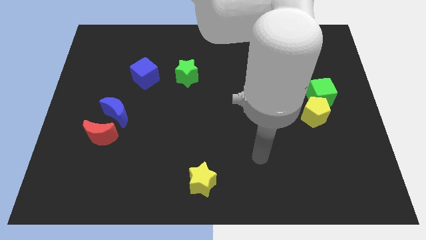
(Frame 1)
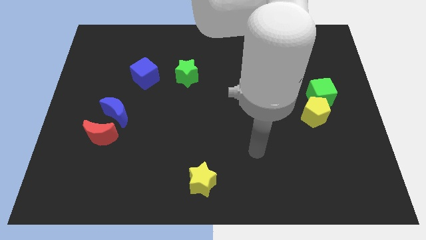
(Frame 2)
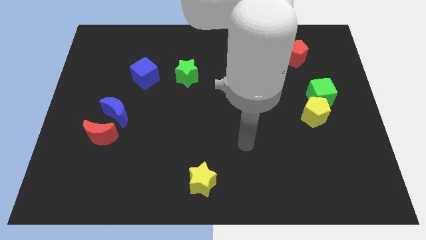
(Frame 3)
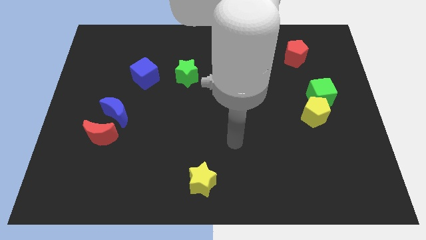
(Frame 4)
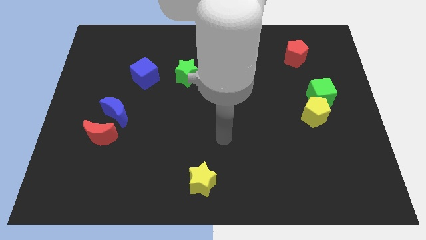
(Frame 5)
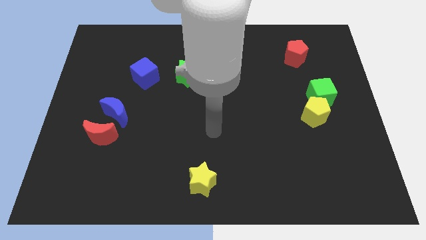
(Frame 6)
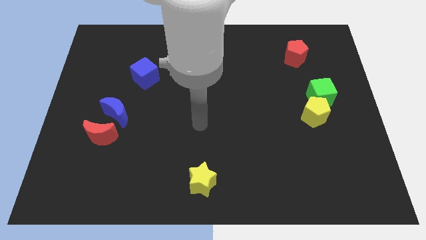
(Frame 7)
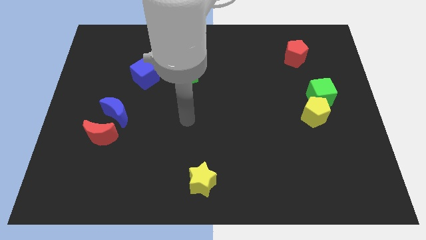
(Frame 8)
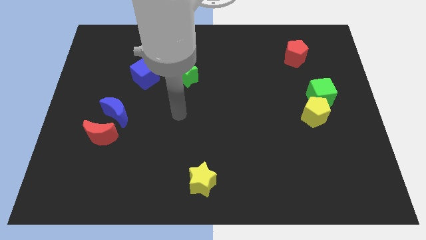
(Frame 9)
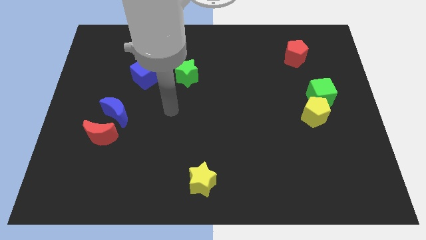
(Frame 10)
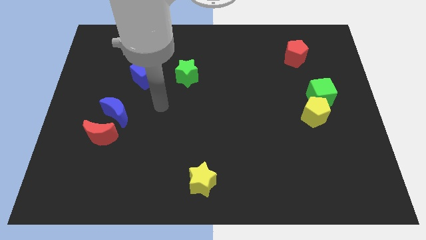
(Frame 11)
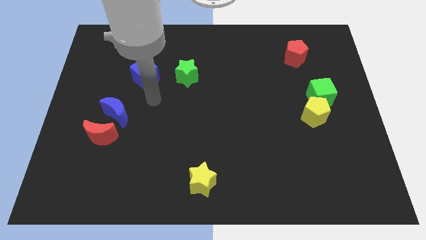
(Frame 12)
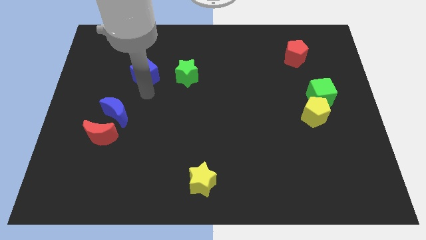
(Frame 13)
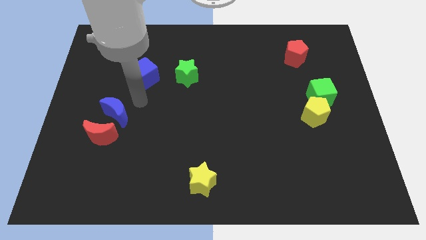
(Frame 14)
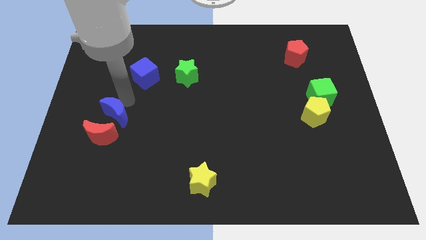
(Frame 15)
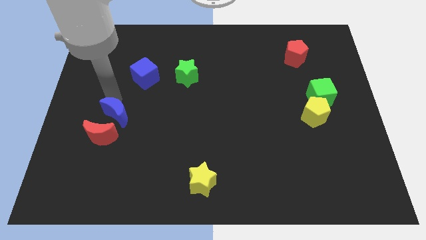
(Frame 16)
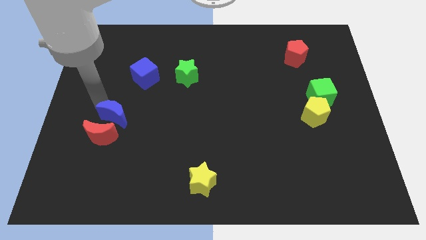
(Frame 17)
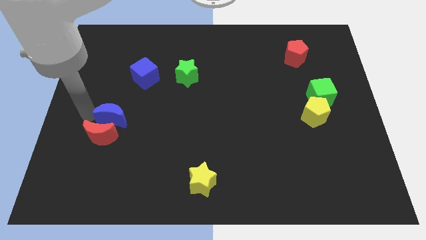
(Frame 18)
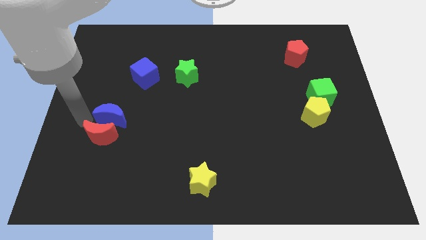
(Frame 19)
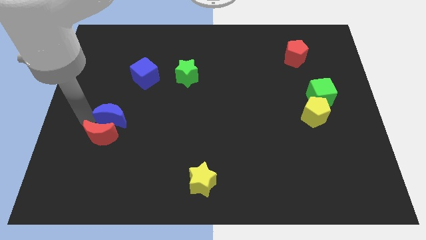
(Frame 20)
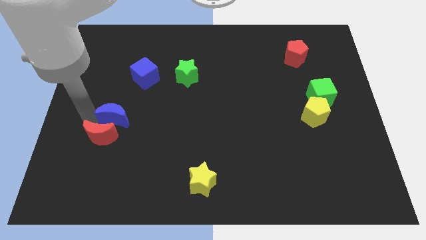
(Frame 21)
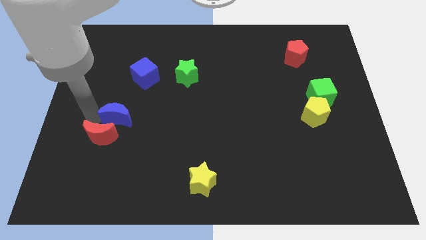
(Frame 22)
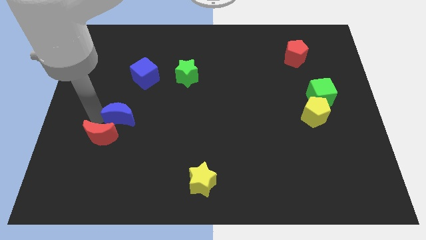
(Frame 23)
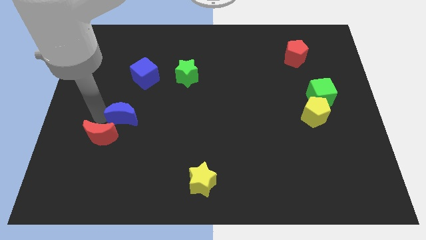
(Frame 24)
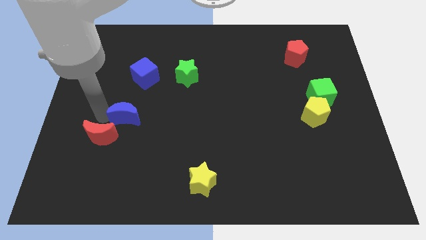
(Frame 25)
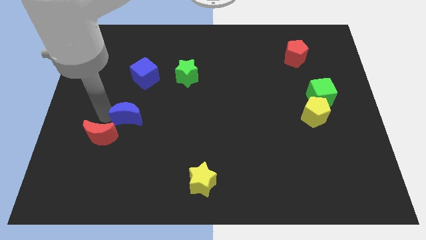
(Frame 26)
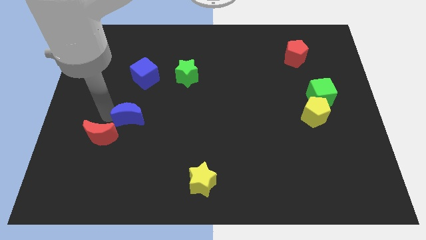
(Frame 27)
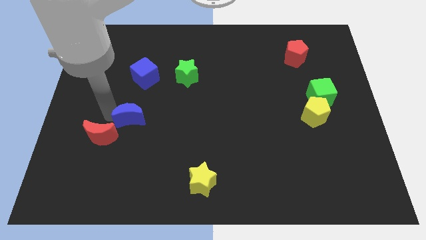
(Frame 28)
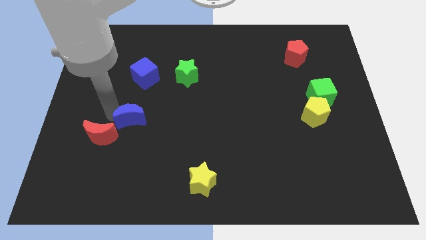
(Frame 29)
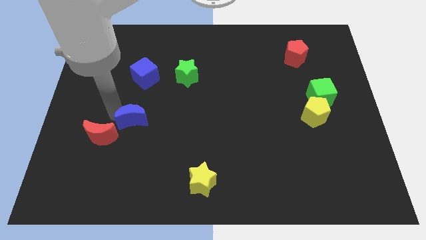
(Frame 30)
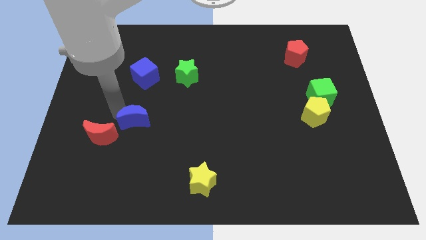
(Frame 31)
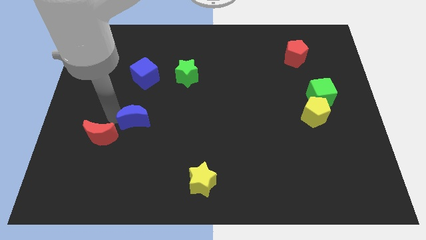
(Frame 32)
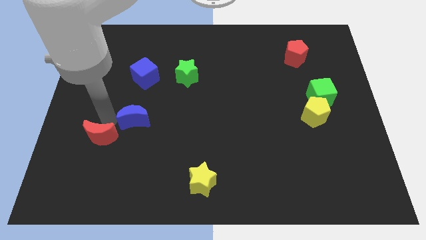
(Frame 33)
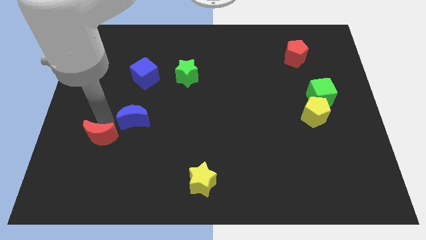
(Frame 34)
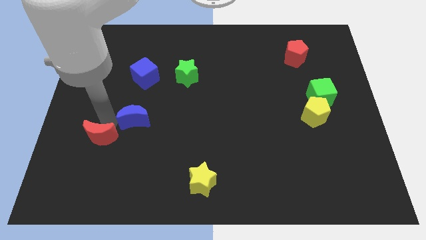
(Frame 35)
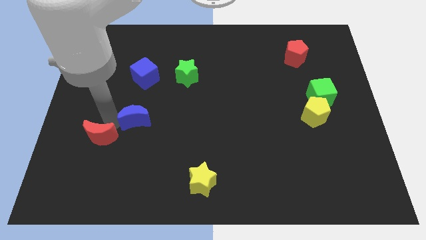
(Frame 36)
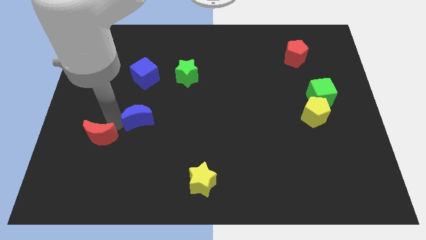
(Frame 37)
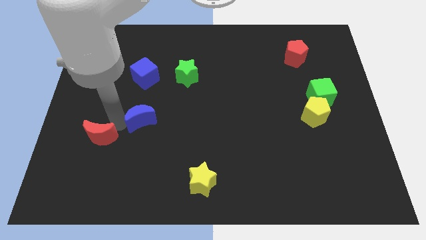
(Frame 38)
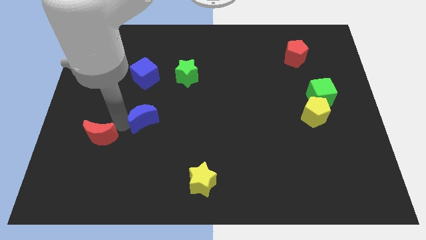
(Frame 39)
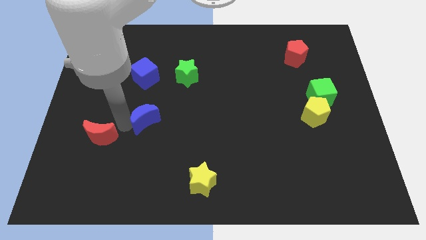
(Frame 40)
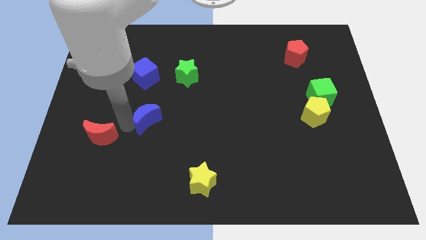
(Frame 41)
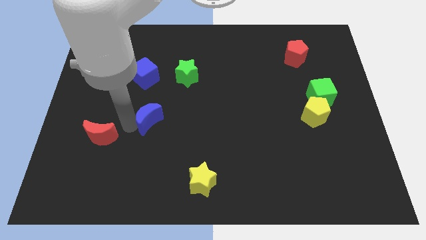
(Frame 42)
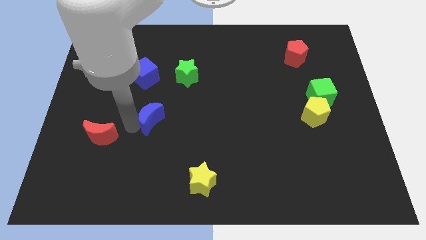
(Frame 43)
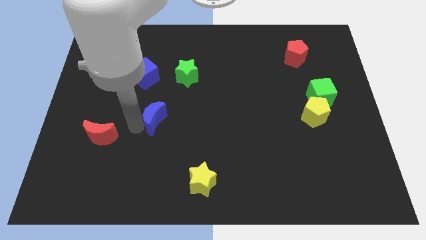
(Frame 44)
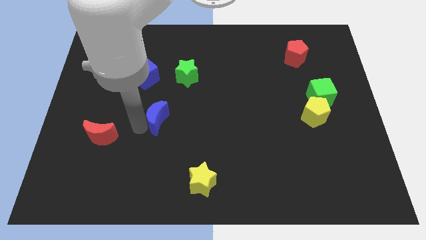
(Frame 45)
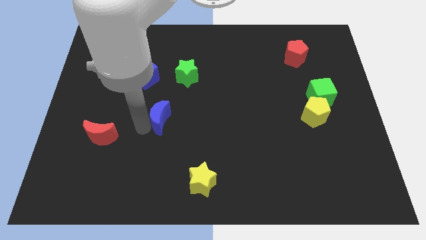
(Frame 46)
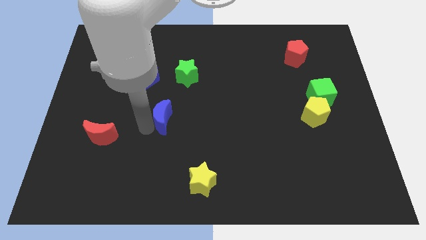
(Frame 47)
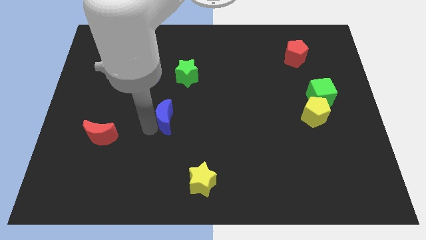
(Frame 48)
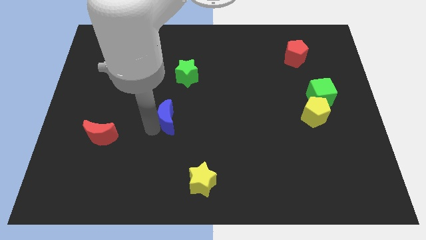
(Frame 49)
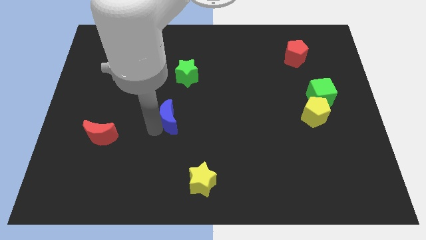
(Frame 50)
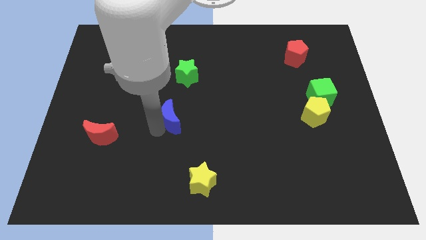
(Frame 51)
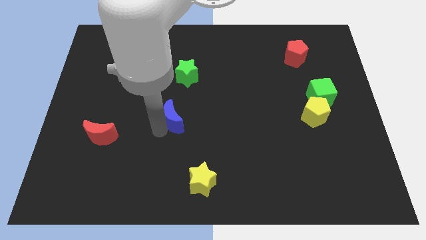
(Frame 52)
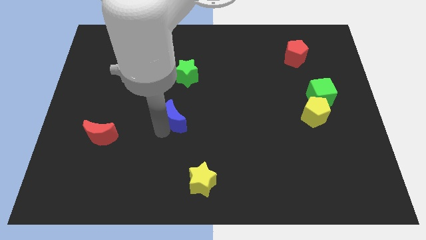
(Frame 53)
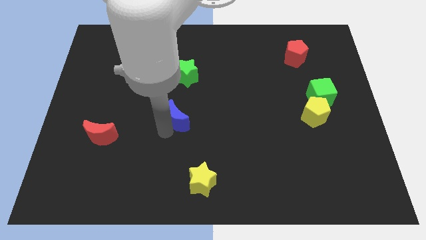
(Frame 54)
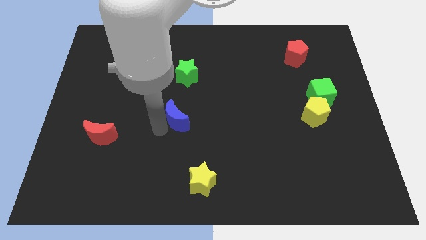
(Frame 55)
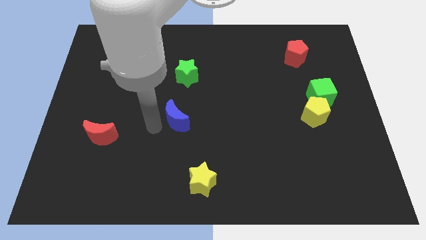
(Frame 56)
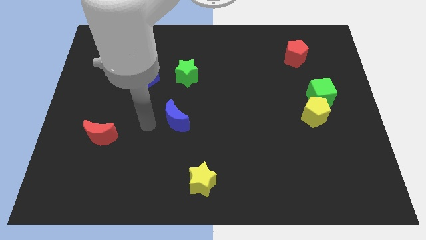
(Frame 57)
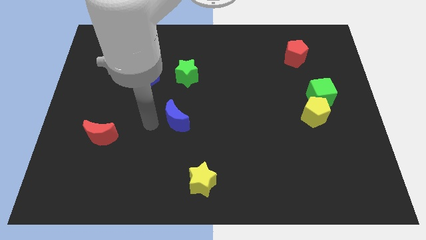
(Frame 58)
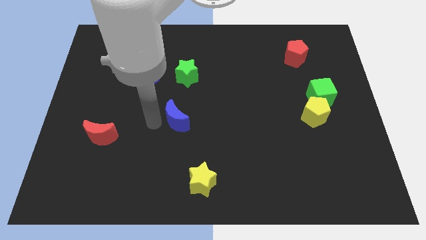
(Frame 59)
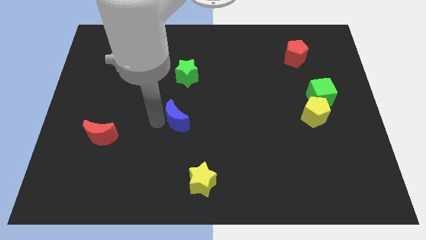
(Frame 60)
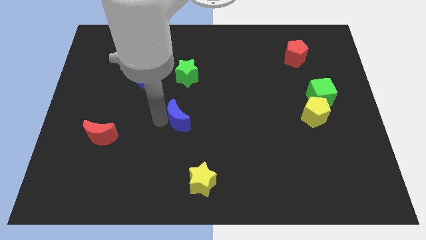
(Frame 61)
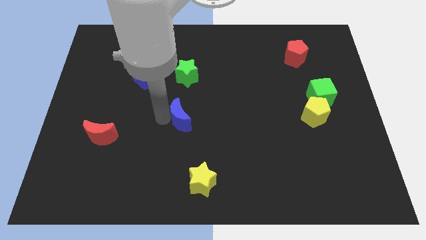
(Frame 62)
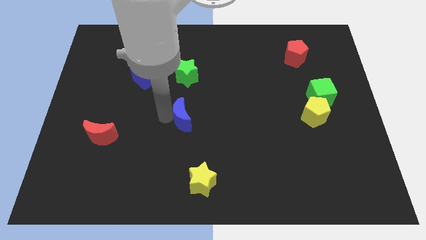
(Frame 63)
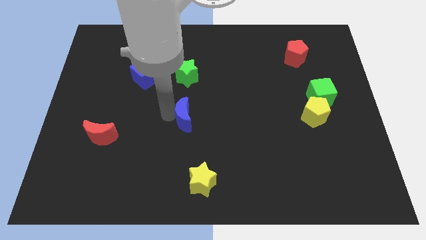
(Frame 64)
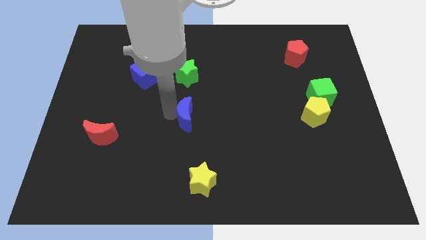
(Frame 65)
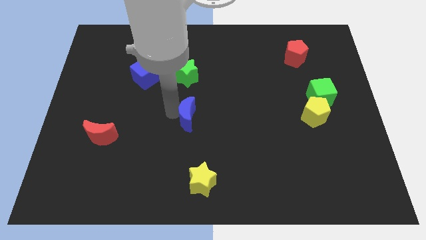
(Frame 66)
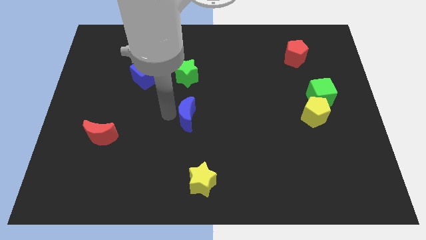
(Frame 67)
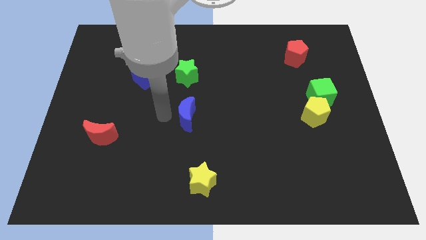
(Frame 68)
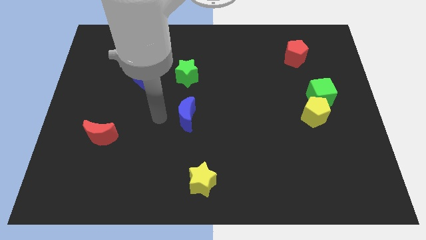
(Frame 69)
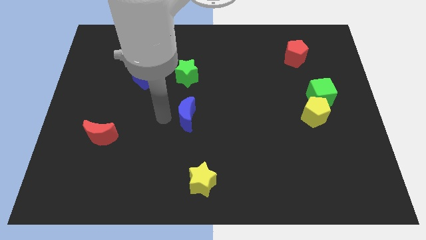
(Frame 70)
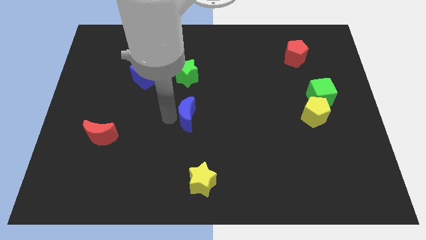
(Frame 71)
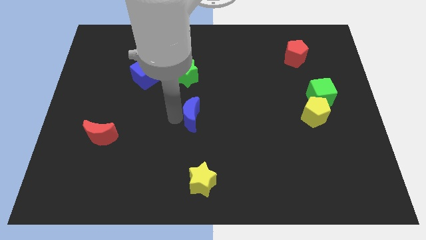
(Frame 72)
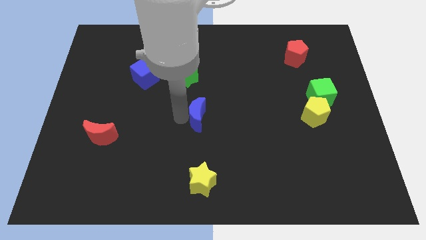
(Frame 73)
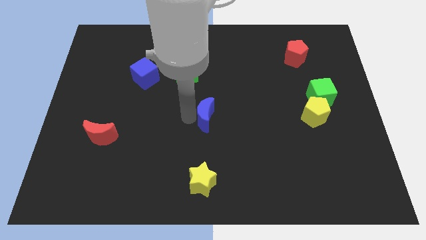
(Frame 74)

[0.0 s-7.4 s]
push the blue moon right

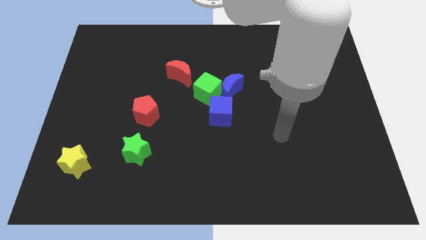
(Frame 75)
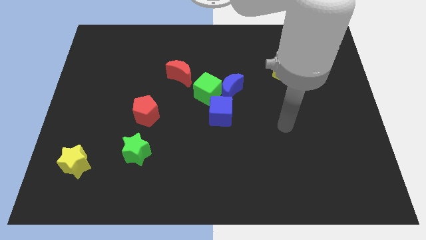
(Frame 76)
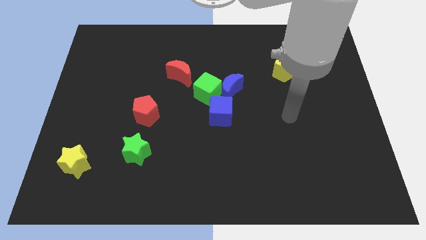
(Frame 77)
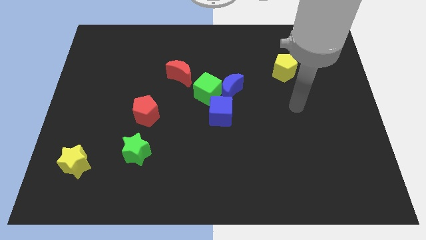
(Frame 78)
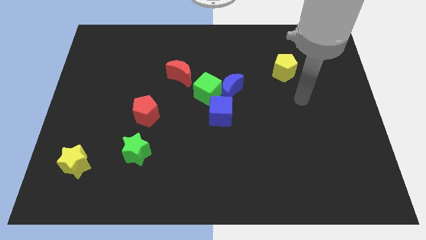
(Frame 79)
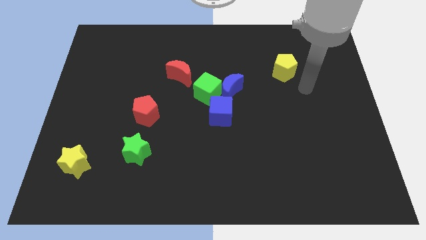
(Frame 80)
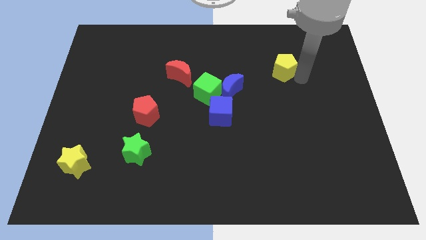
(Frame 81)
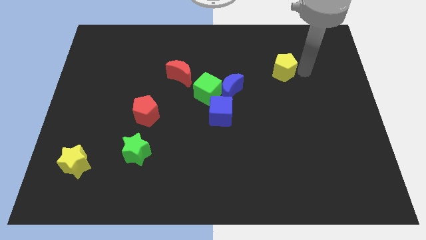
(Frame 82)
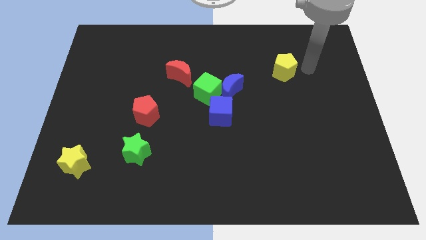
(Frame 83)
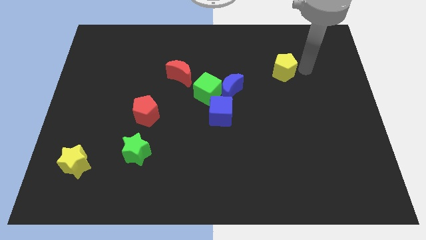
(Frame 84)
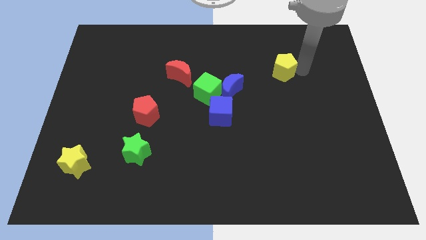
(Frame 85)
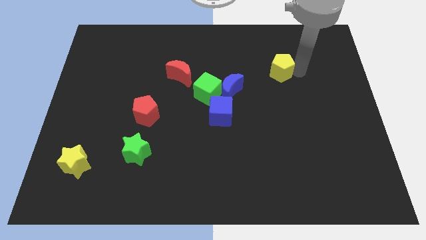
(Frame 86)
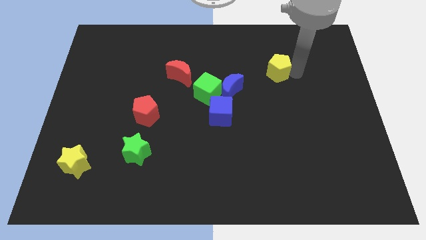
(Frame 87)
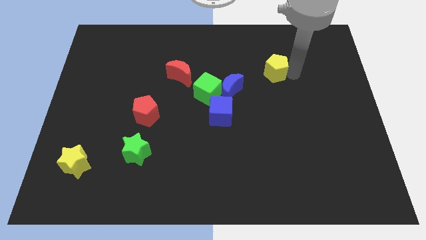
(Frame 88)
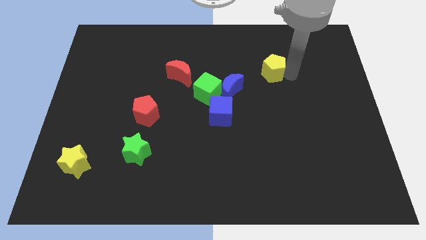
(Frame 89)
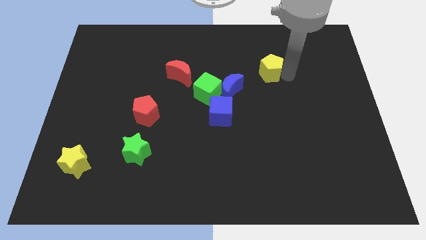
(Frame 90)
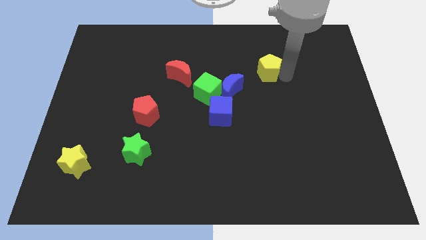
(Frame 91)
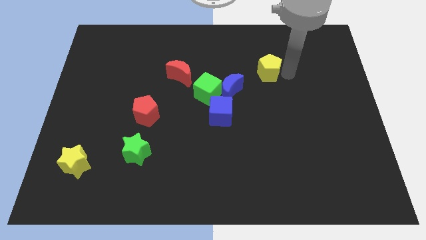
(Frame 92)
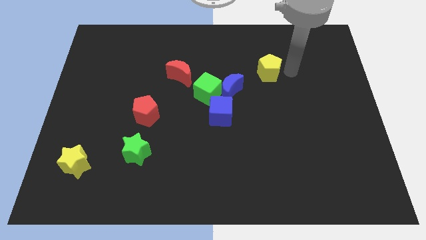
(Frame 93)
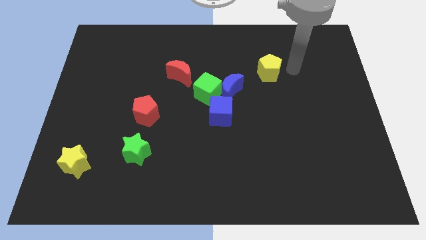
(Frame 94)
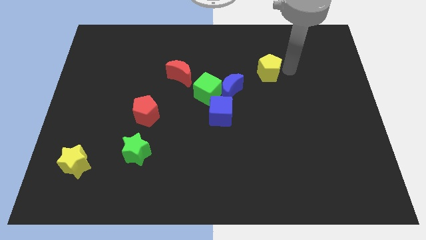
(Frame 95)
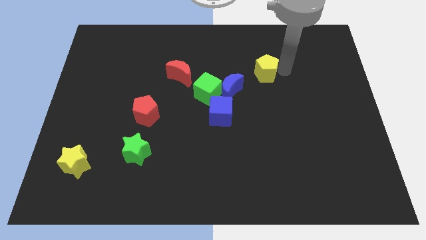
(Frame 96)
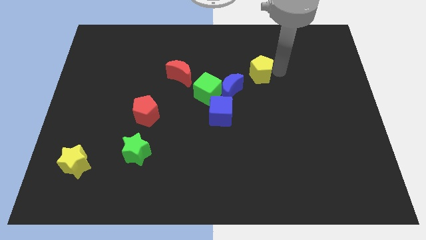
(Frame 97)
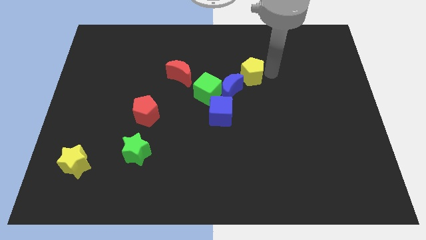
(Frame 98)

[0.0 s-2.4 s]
slide the yellow pentagon a bit left
